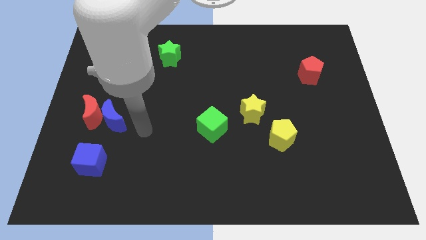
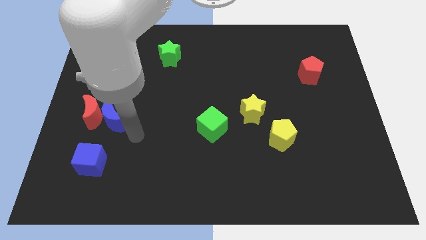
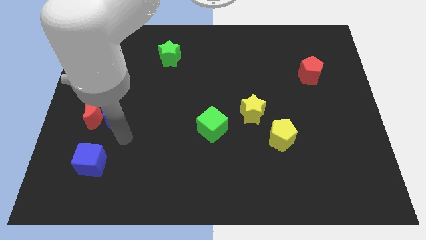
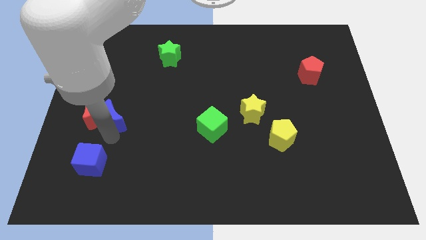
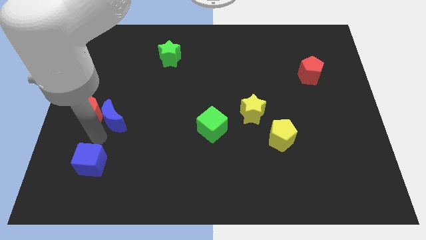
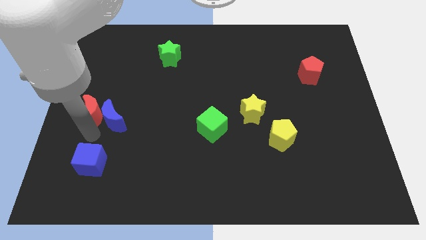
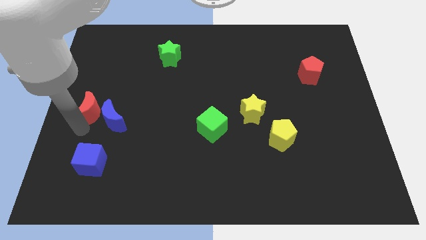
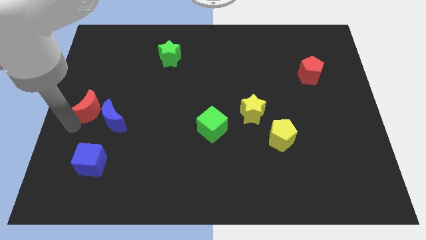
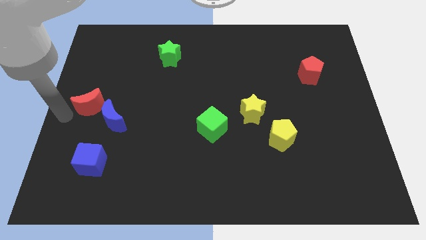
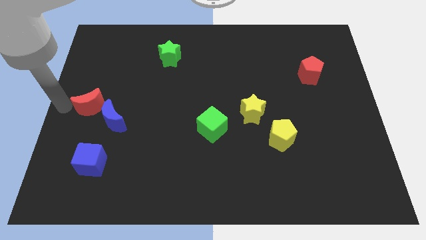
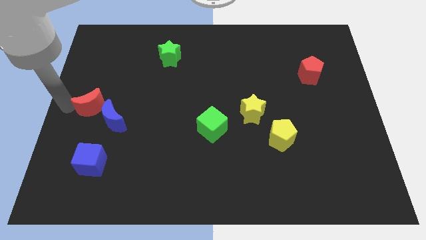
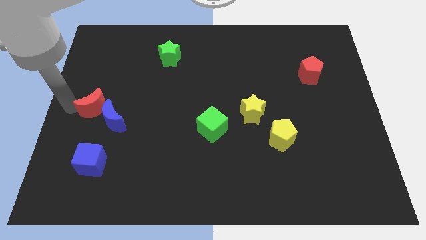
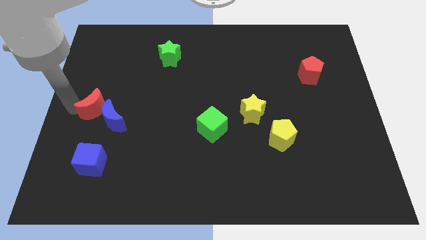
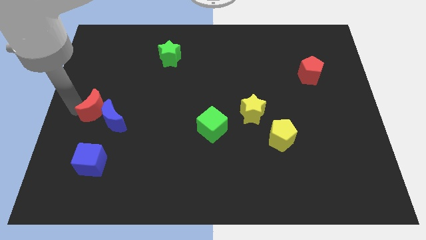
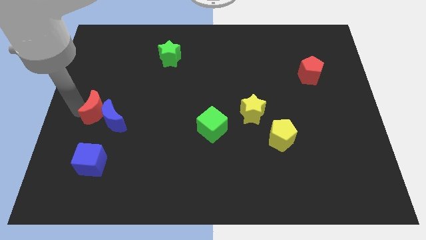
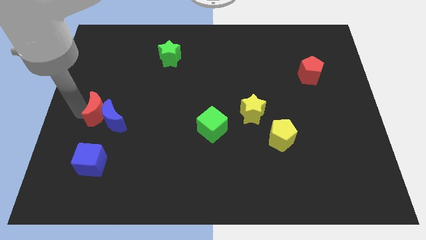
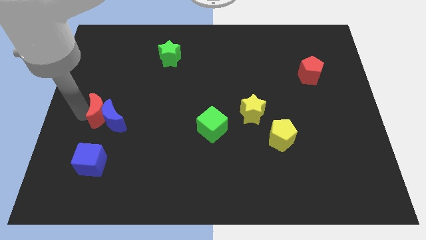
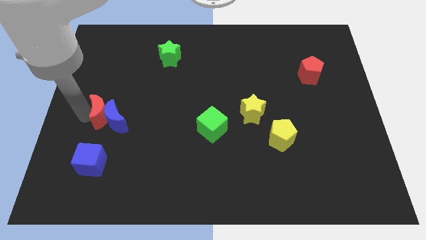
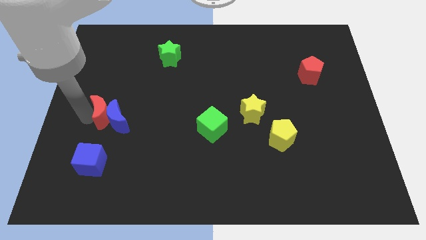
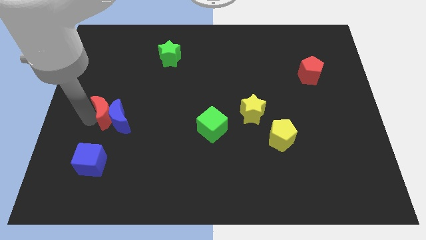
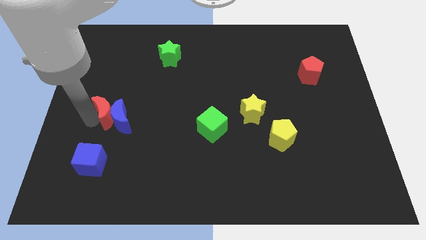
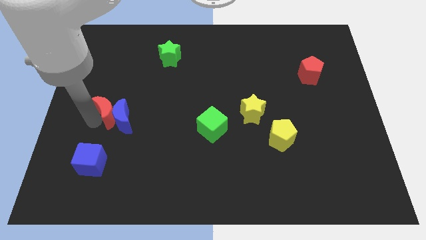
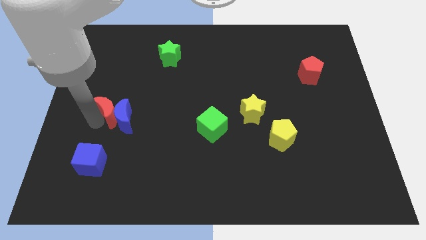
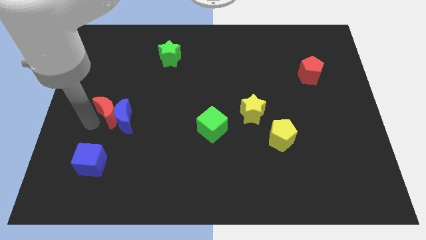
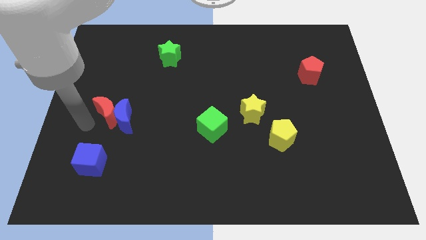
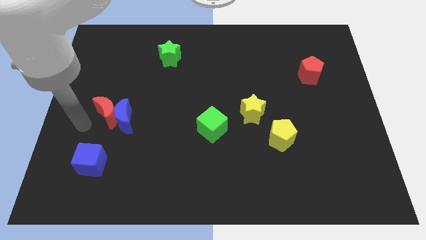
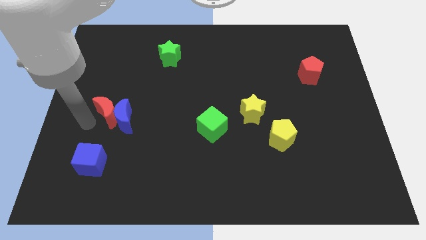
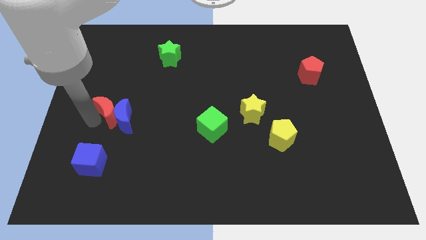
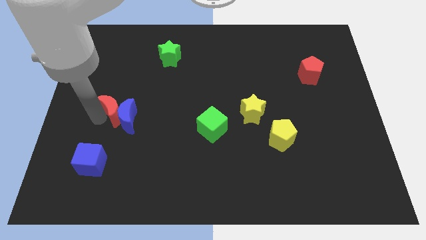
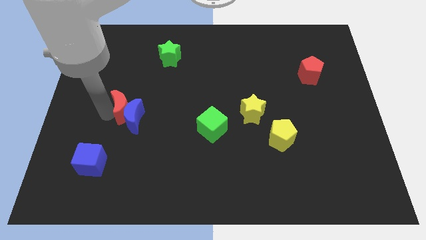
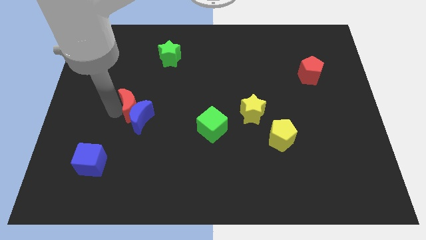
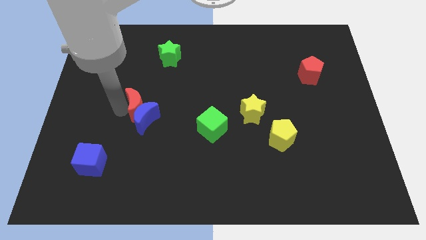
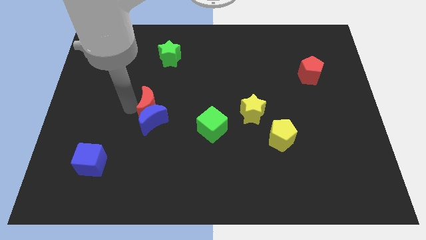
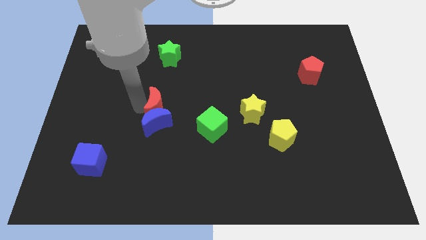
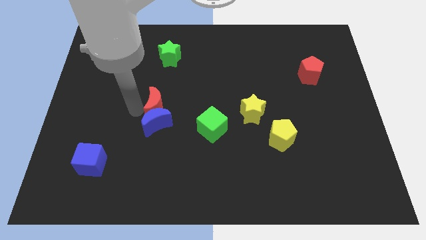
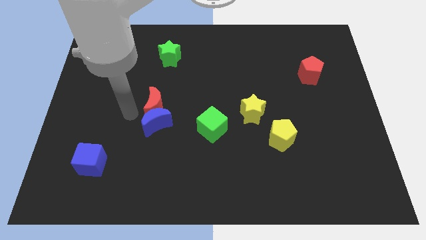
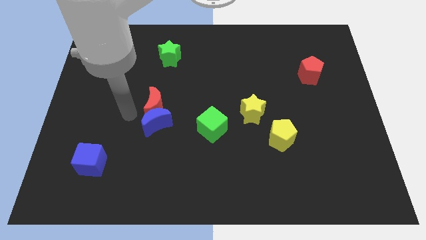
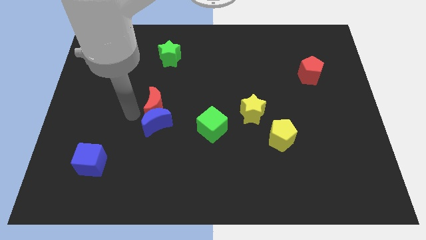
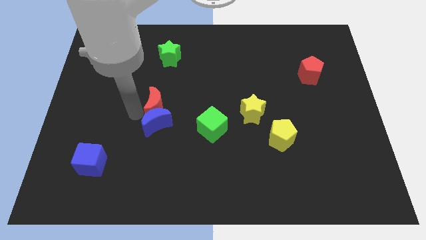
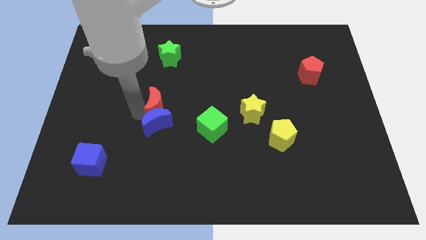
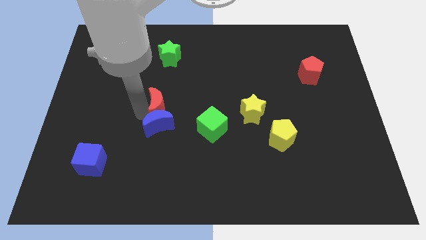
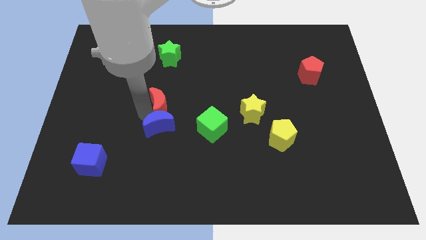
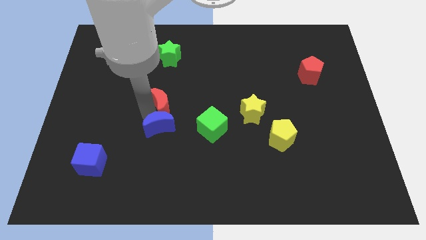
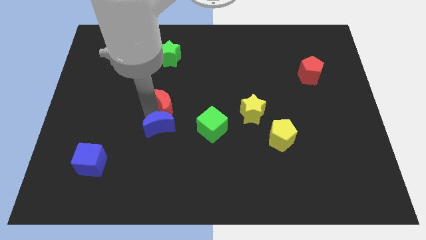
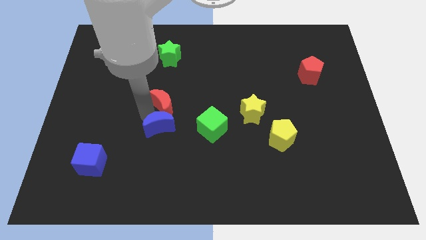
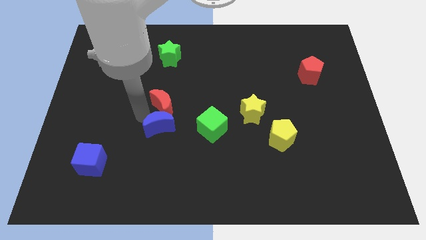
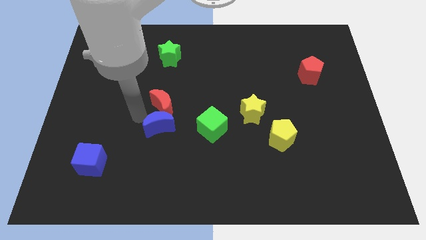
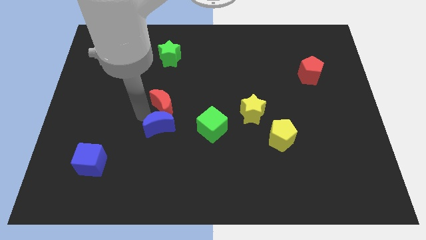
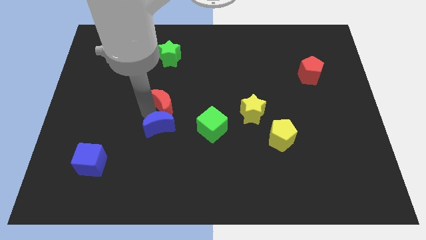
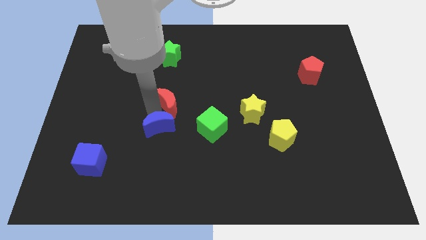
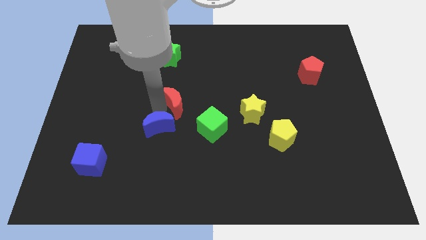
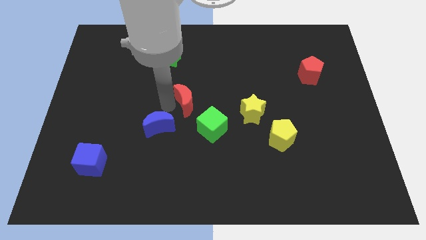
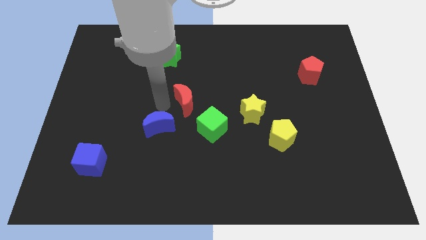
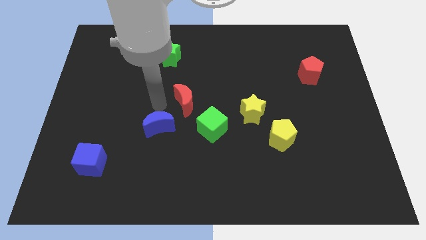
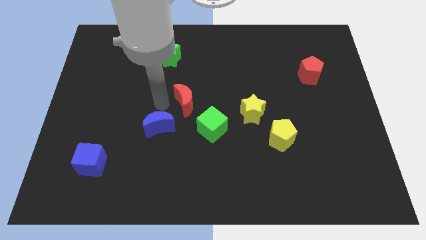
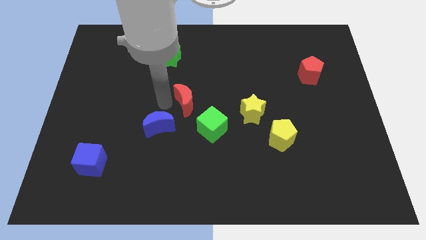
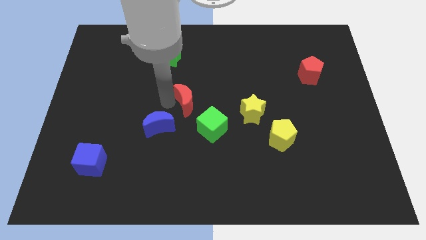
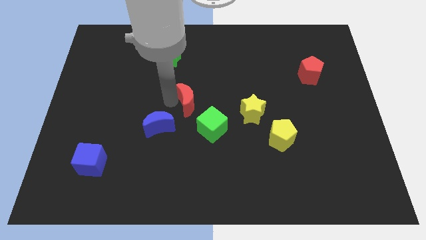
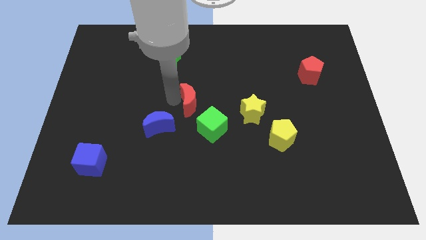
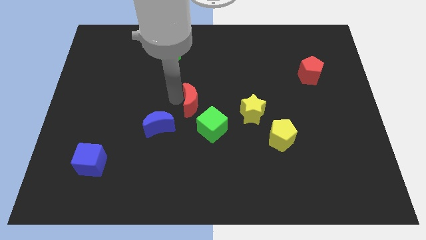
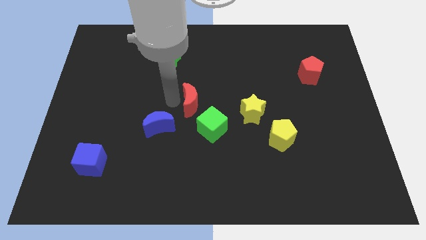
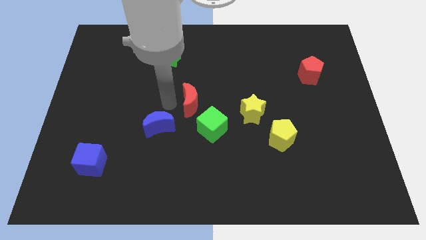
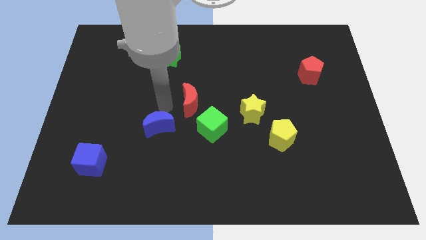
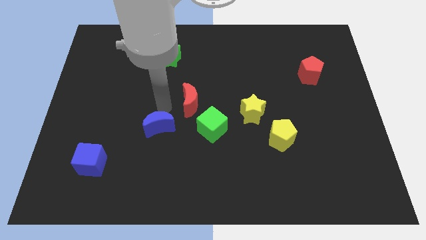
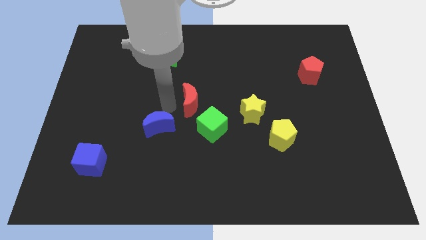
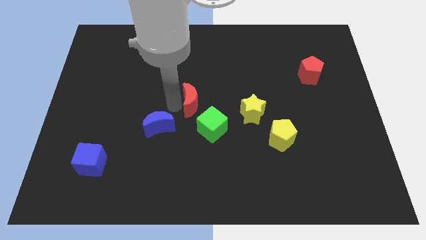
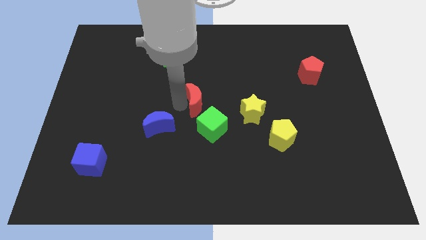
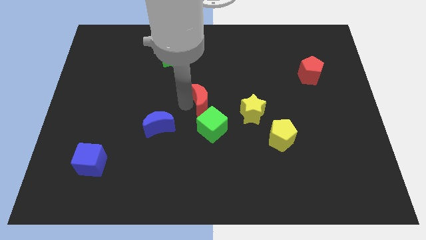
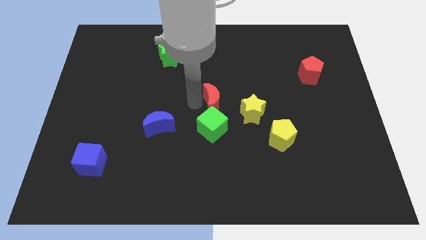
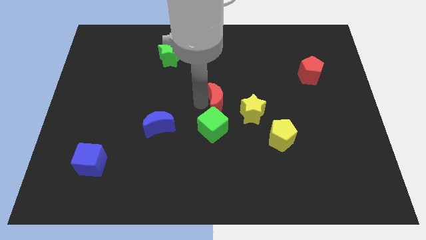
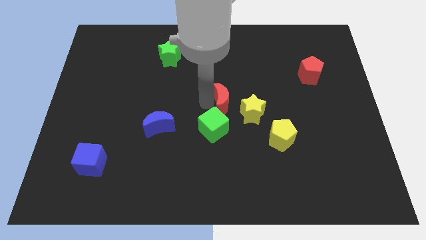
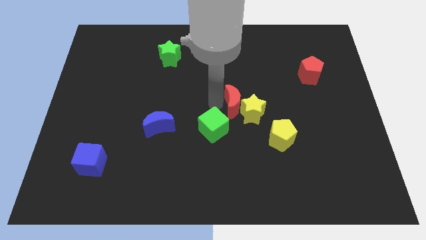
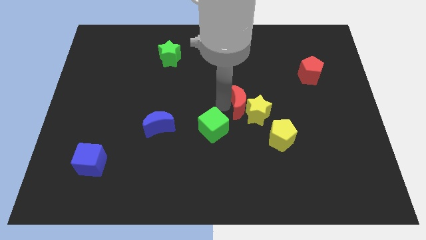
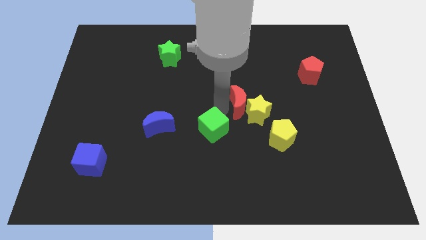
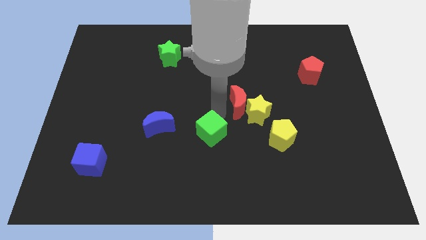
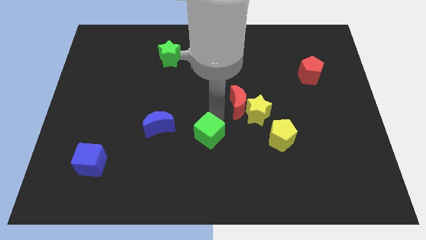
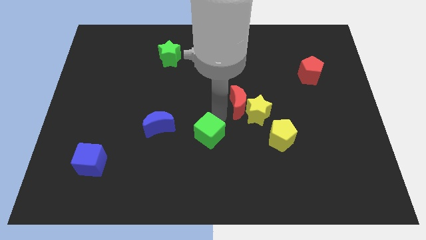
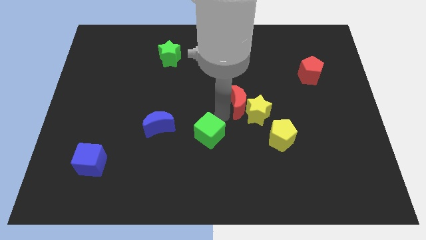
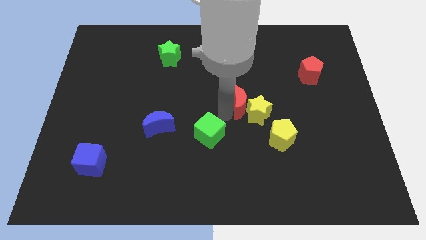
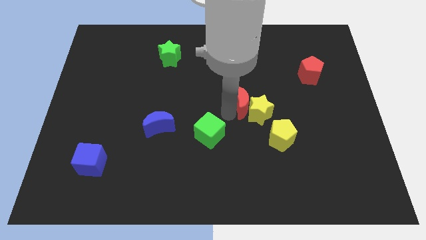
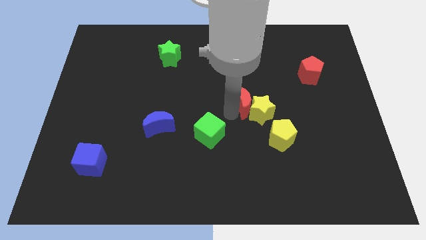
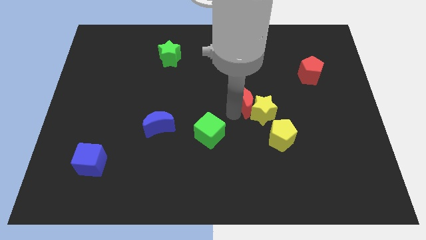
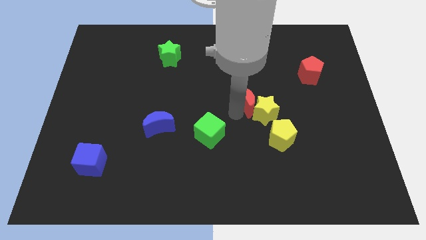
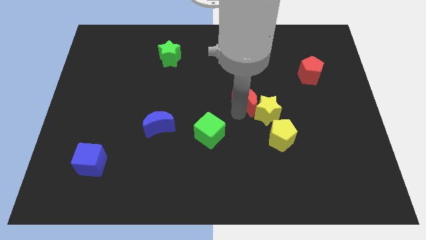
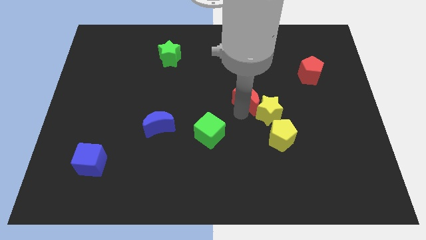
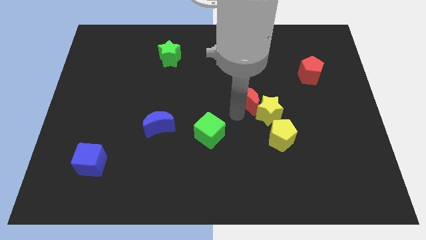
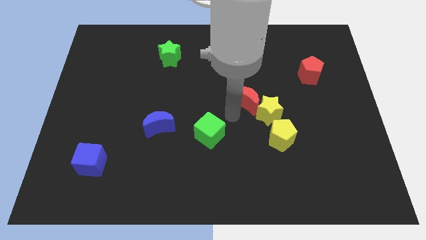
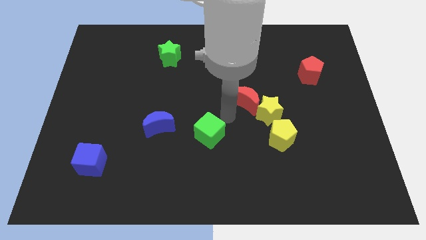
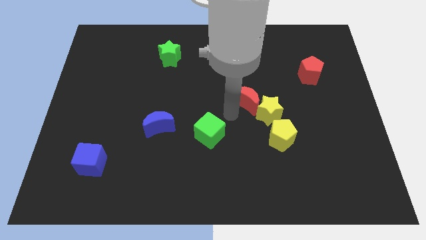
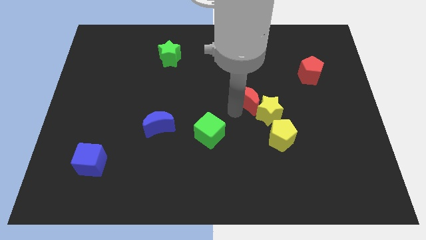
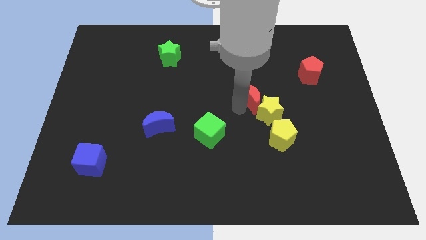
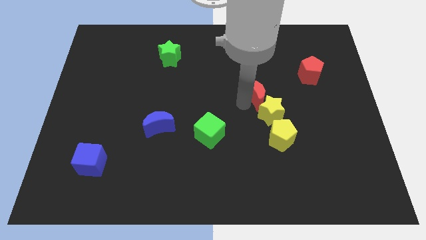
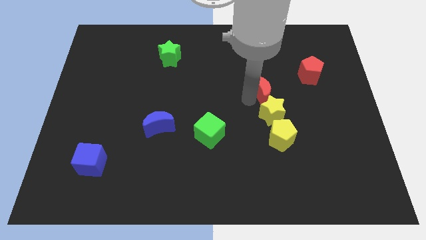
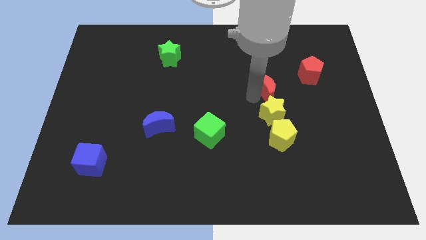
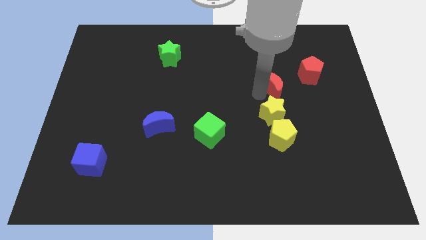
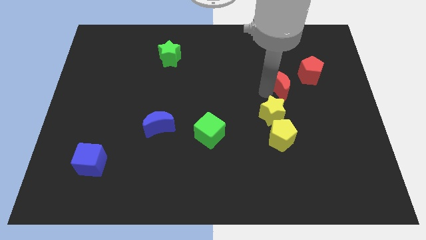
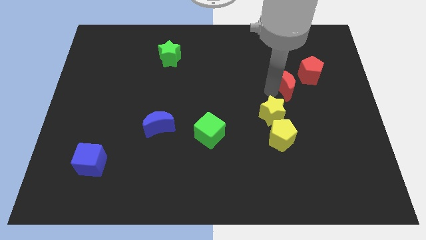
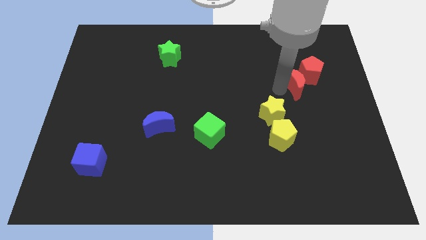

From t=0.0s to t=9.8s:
move the red moon towards the red pentagon
